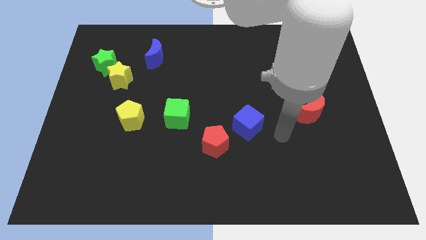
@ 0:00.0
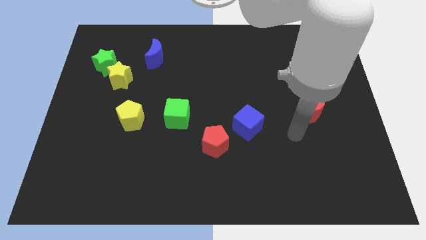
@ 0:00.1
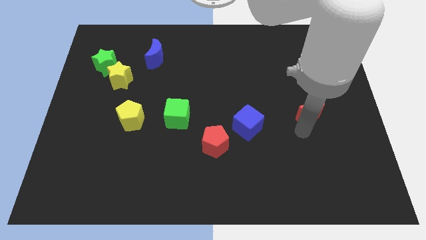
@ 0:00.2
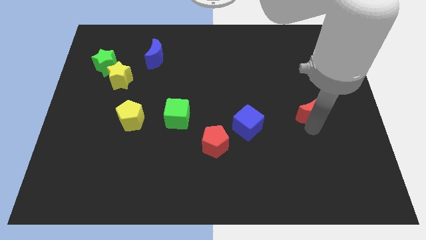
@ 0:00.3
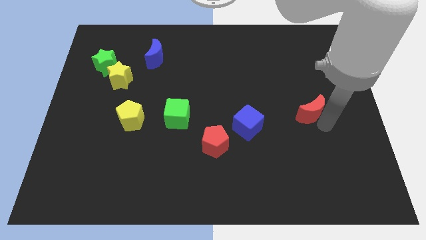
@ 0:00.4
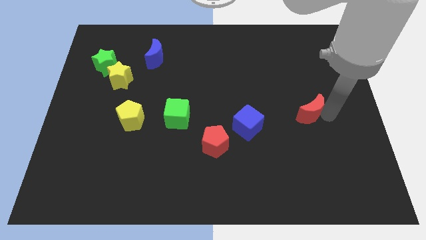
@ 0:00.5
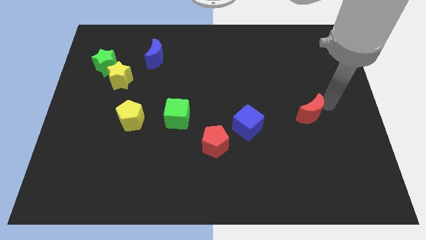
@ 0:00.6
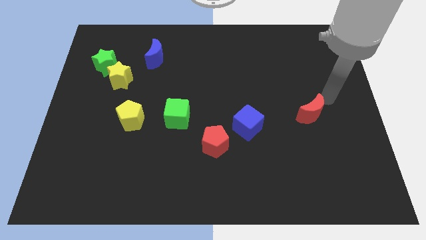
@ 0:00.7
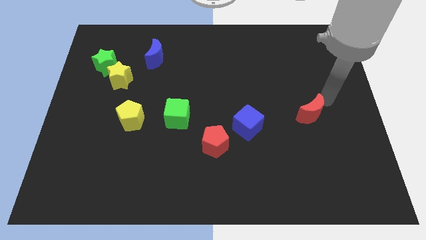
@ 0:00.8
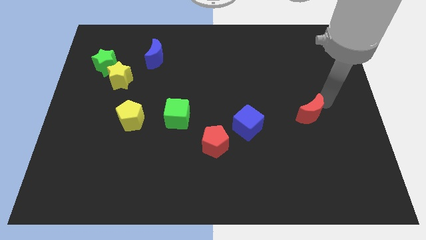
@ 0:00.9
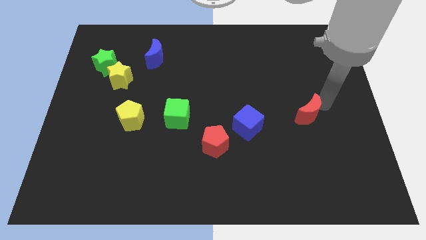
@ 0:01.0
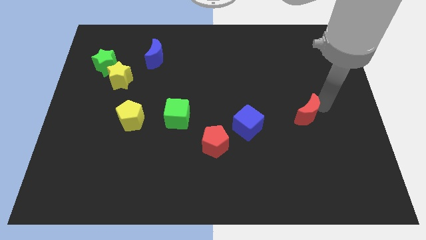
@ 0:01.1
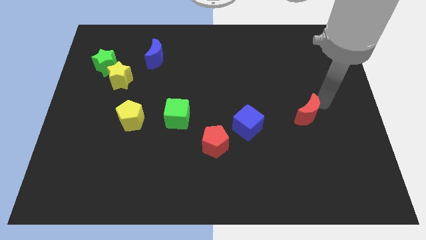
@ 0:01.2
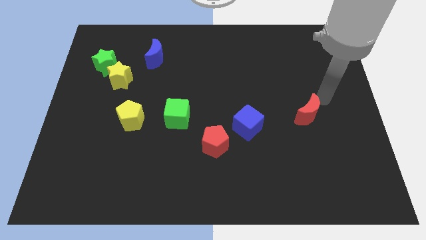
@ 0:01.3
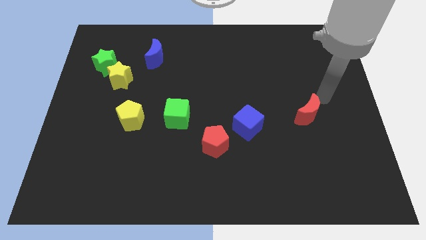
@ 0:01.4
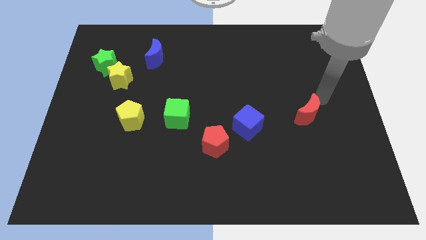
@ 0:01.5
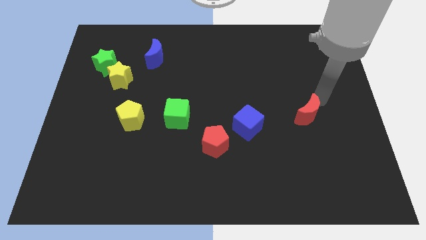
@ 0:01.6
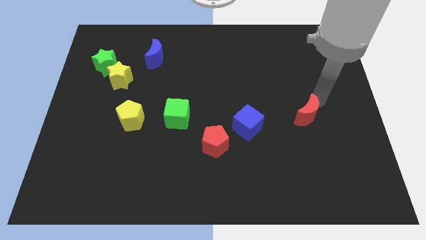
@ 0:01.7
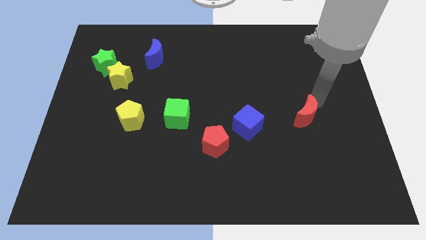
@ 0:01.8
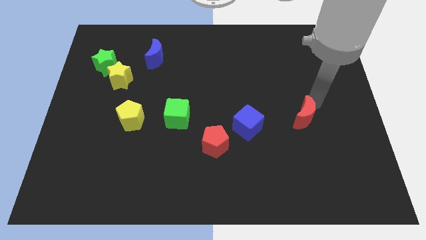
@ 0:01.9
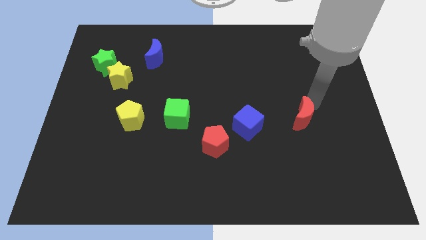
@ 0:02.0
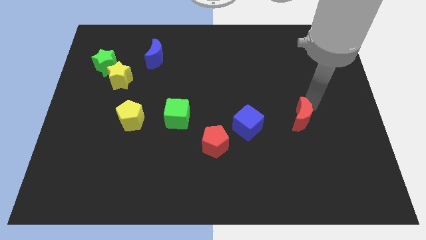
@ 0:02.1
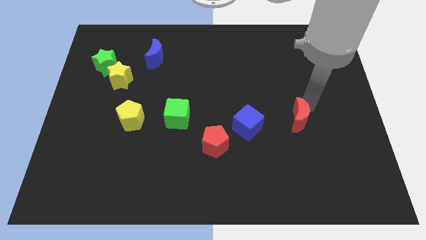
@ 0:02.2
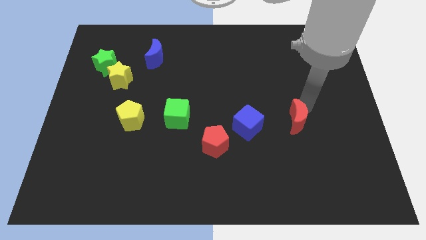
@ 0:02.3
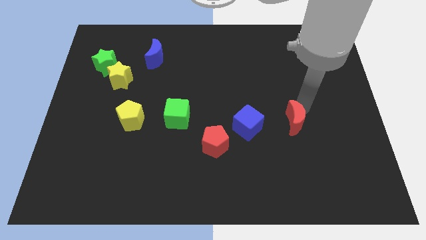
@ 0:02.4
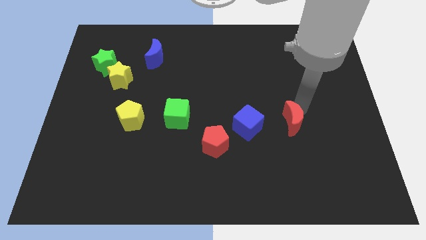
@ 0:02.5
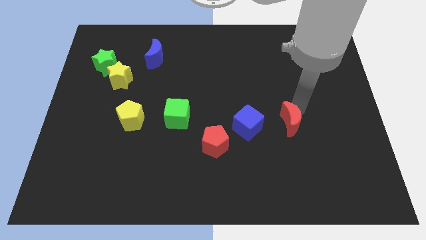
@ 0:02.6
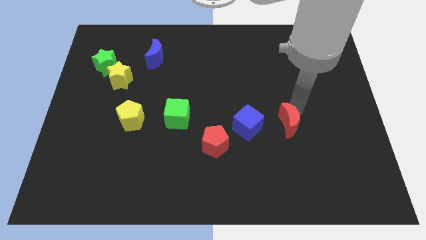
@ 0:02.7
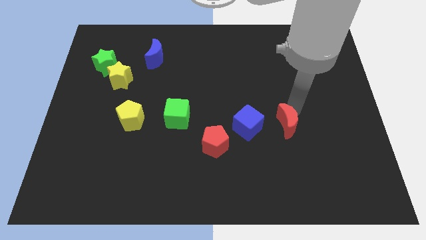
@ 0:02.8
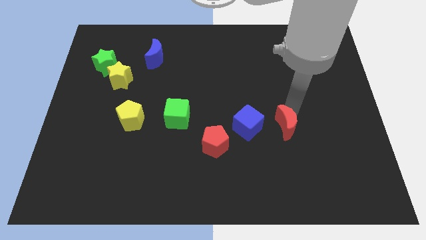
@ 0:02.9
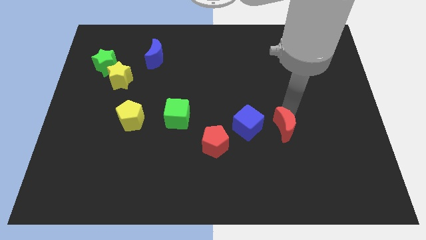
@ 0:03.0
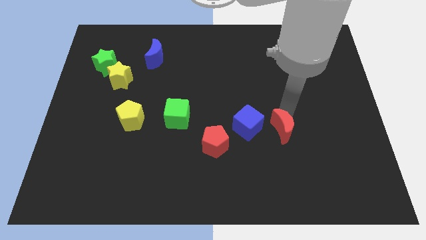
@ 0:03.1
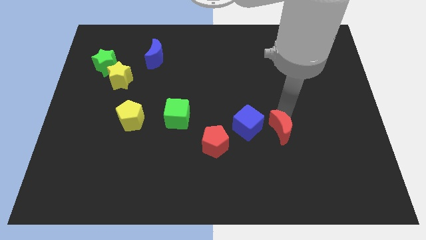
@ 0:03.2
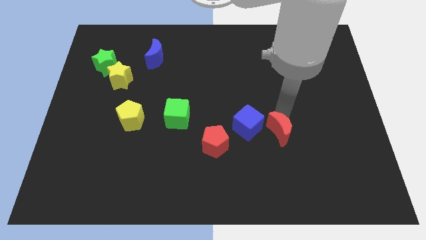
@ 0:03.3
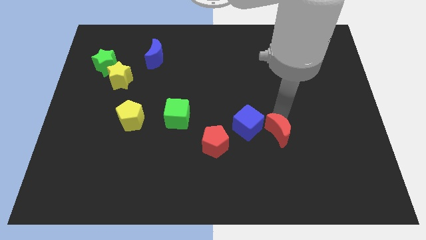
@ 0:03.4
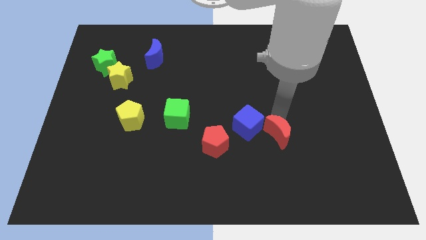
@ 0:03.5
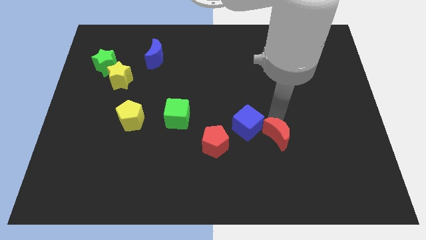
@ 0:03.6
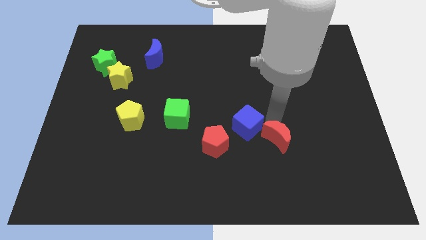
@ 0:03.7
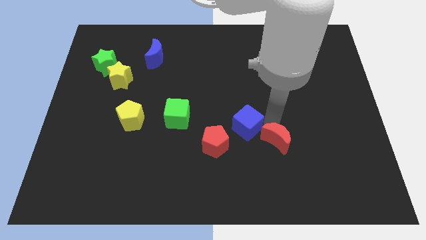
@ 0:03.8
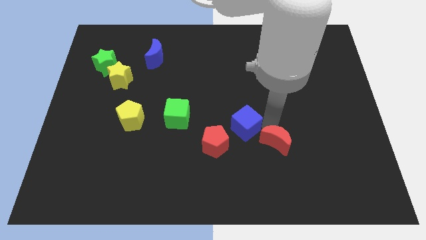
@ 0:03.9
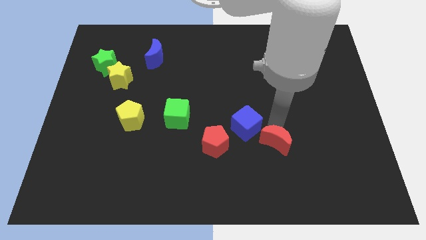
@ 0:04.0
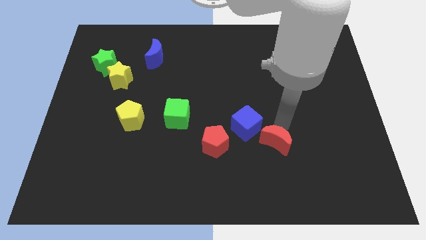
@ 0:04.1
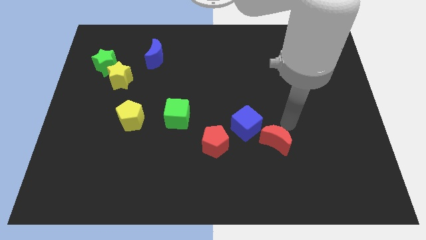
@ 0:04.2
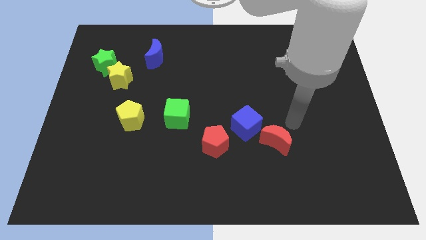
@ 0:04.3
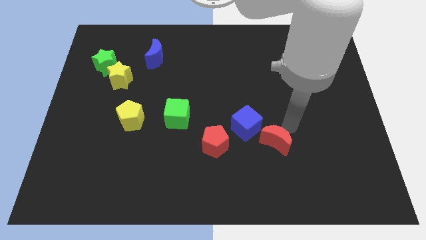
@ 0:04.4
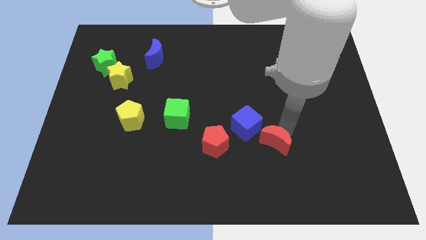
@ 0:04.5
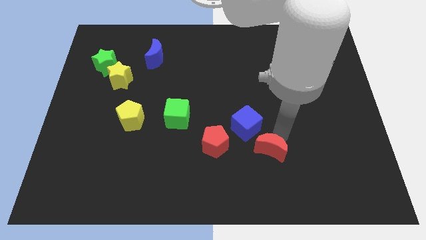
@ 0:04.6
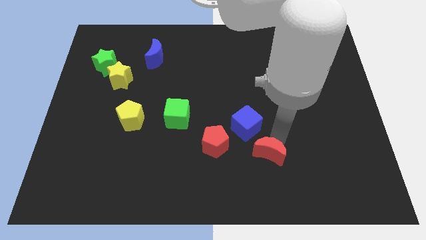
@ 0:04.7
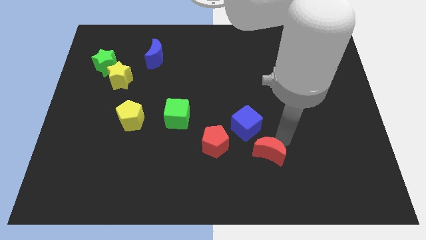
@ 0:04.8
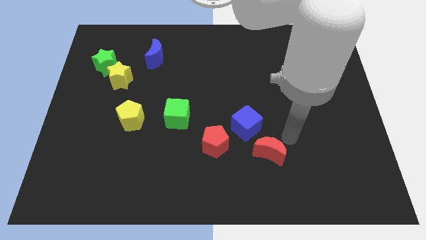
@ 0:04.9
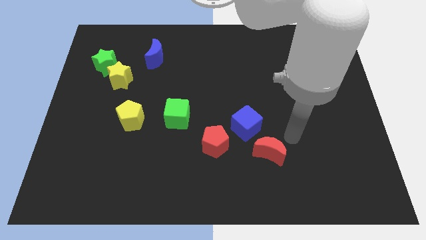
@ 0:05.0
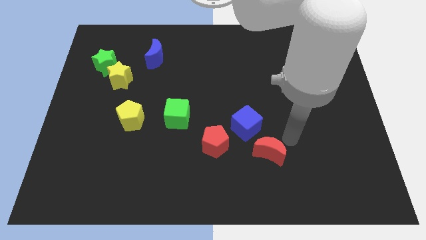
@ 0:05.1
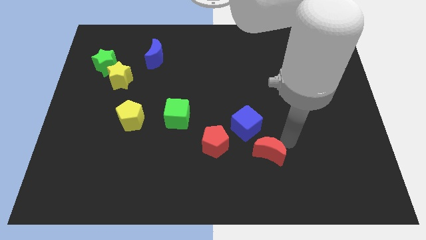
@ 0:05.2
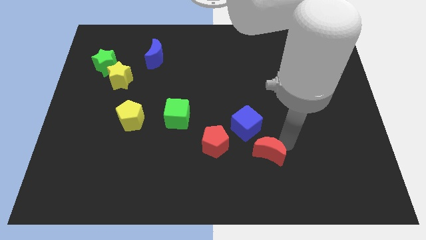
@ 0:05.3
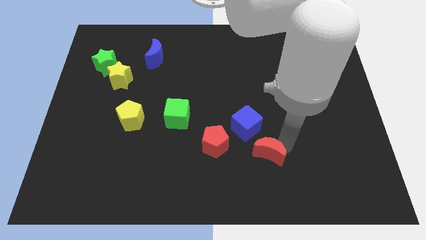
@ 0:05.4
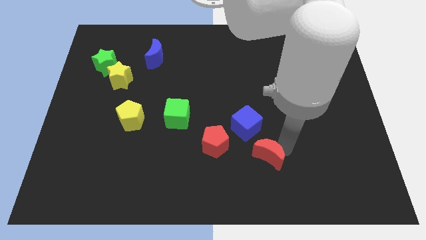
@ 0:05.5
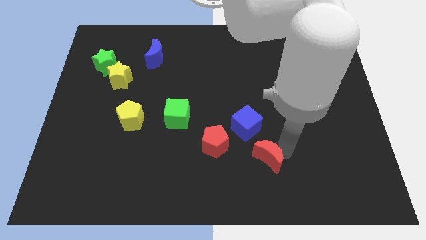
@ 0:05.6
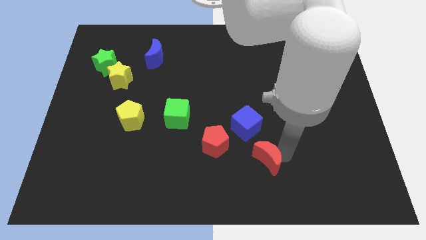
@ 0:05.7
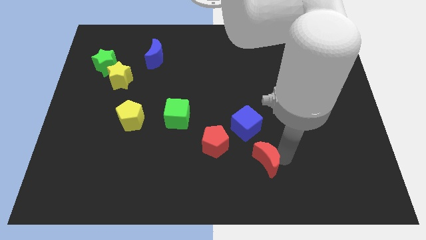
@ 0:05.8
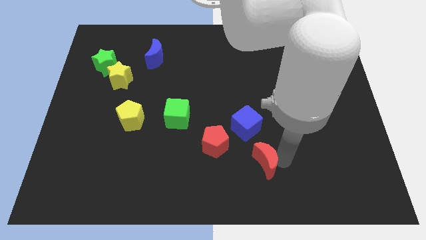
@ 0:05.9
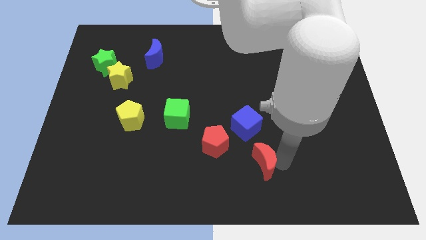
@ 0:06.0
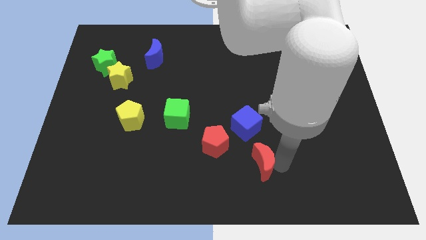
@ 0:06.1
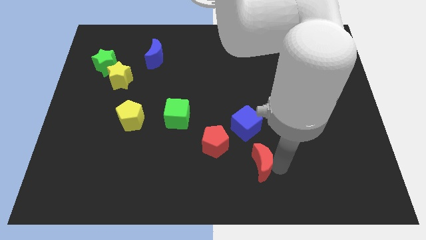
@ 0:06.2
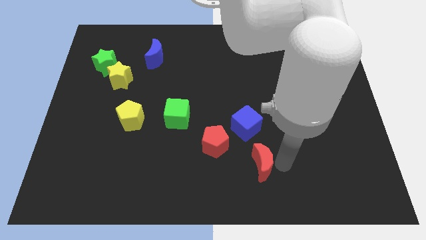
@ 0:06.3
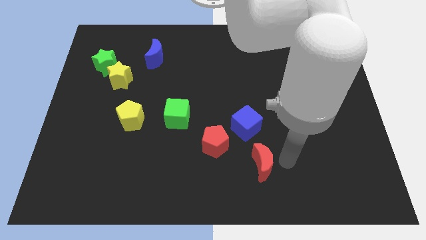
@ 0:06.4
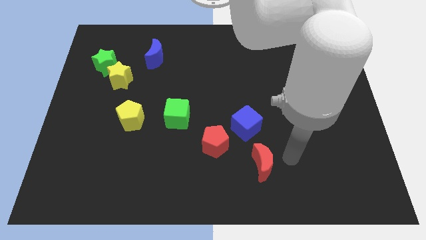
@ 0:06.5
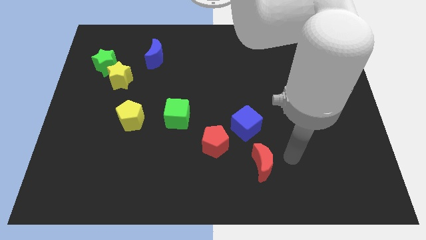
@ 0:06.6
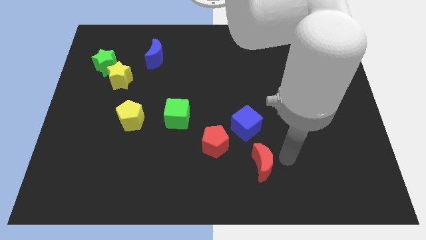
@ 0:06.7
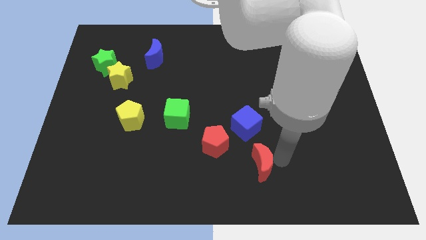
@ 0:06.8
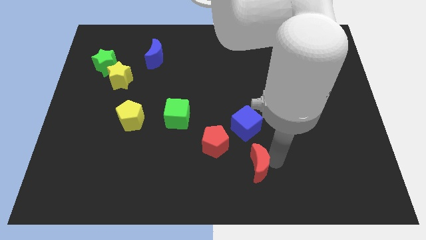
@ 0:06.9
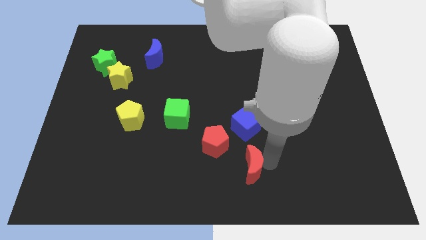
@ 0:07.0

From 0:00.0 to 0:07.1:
put the red moon to the bottom side
